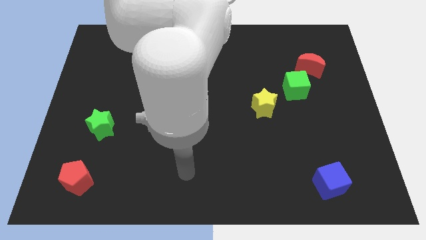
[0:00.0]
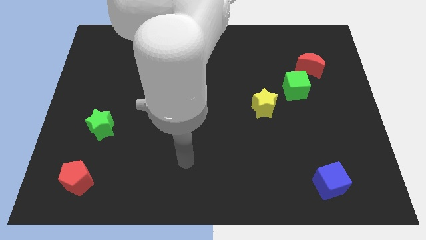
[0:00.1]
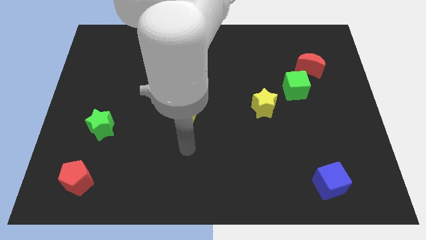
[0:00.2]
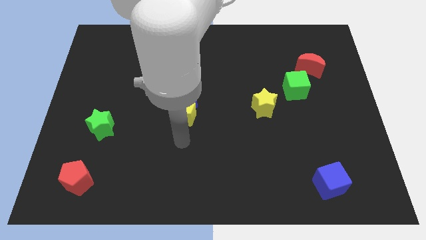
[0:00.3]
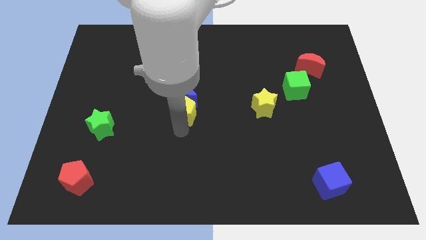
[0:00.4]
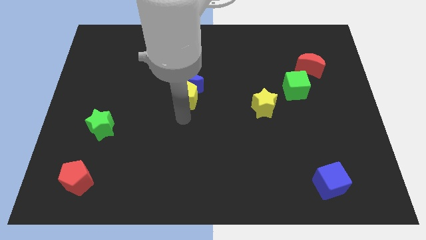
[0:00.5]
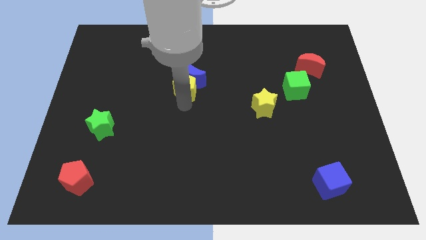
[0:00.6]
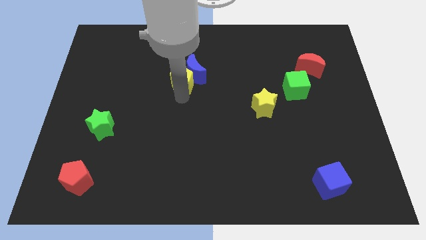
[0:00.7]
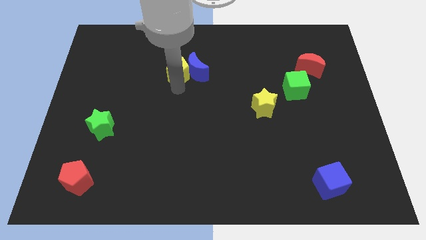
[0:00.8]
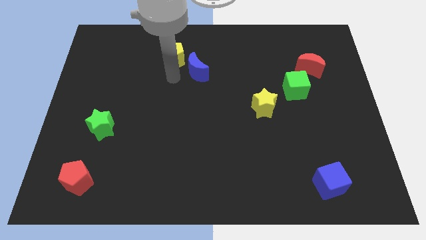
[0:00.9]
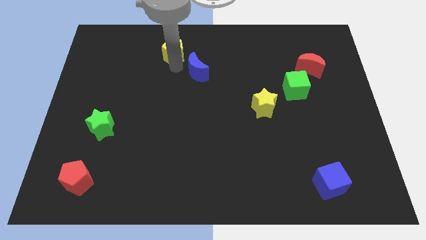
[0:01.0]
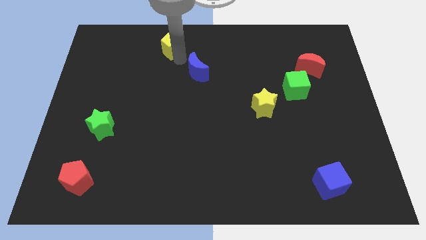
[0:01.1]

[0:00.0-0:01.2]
separate the blue moon from the yellow pentagon

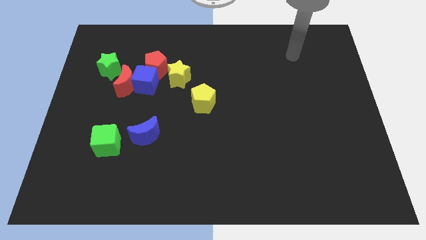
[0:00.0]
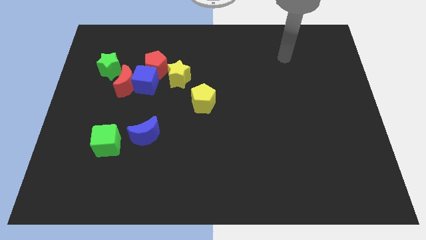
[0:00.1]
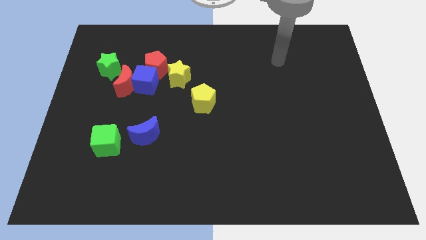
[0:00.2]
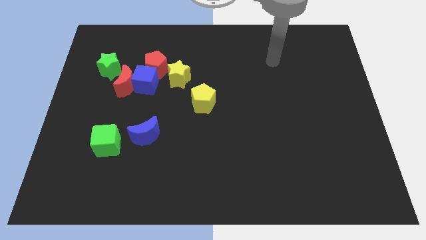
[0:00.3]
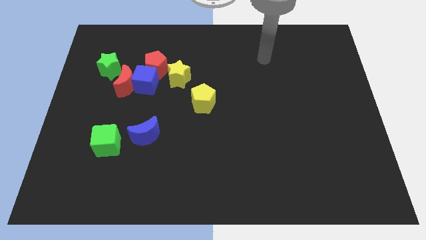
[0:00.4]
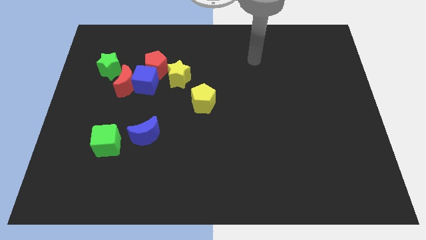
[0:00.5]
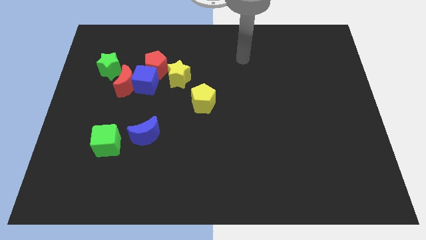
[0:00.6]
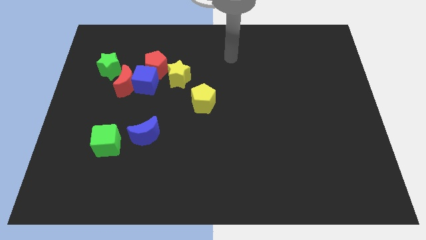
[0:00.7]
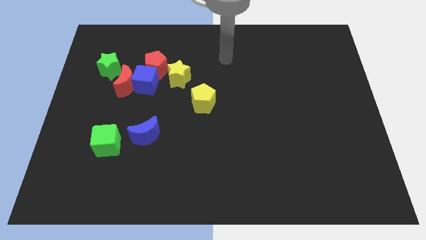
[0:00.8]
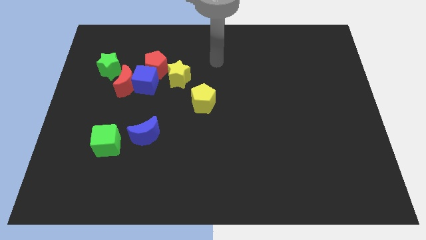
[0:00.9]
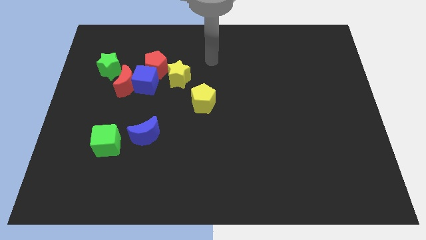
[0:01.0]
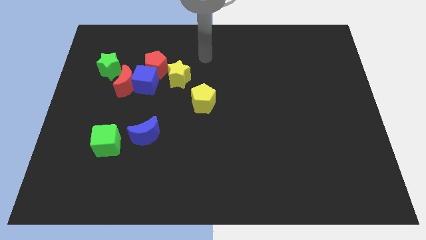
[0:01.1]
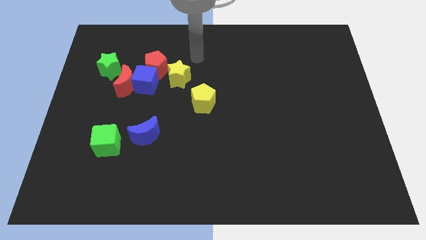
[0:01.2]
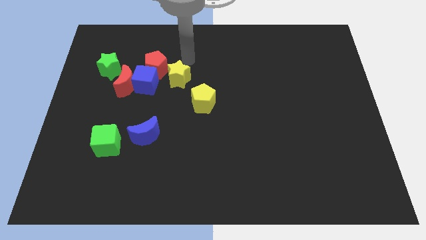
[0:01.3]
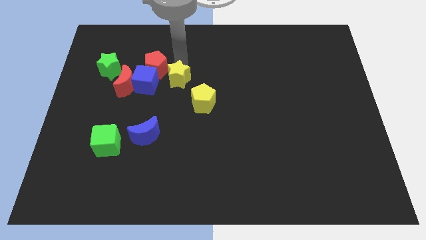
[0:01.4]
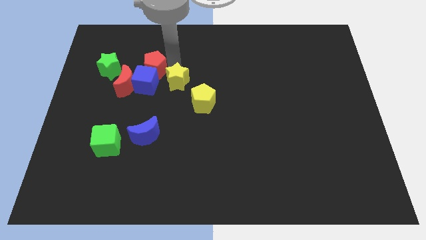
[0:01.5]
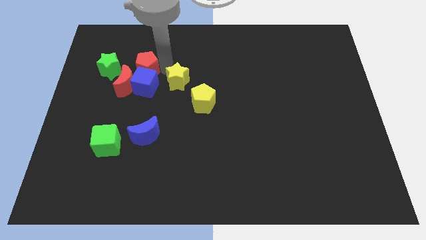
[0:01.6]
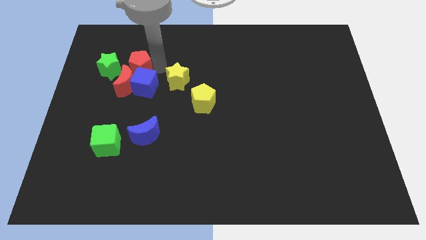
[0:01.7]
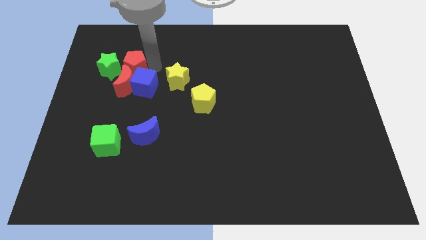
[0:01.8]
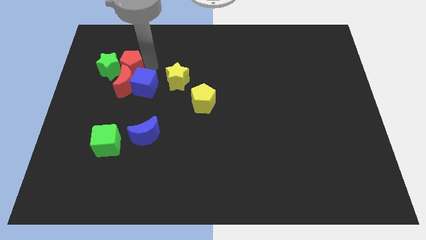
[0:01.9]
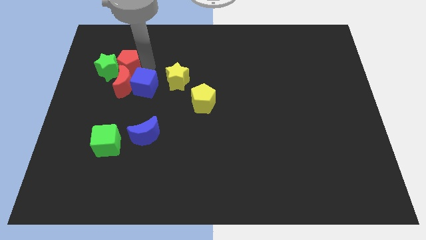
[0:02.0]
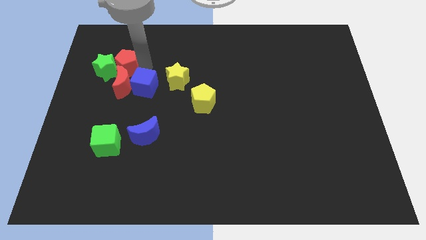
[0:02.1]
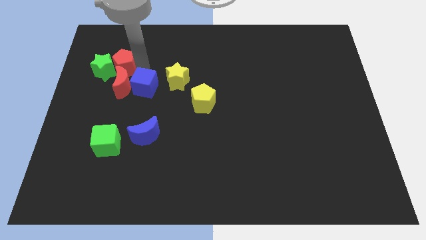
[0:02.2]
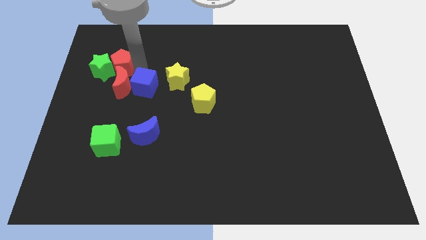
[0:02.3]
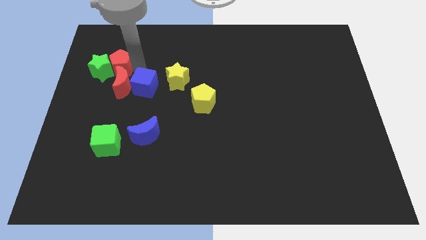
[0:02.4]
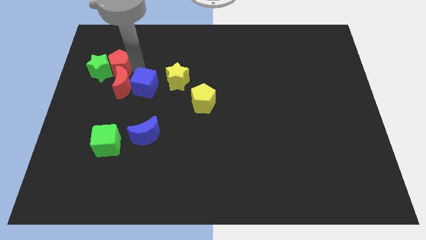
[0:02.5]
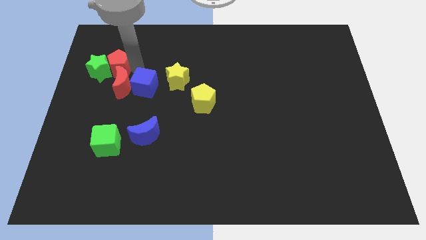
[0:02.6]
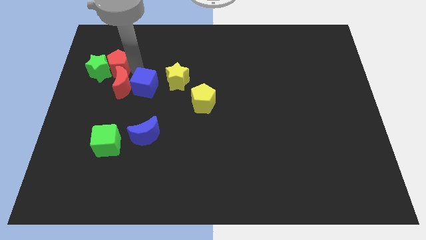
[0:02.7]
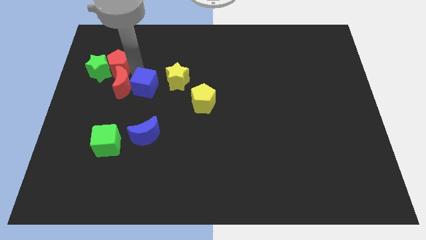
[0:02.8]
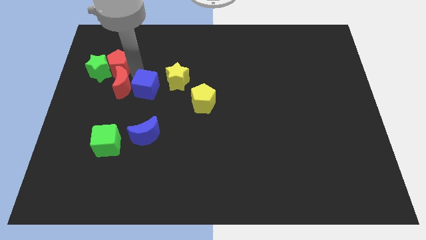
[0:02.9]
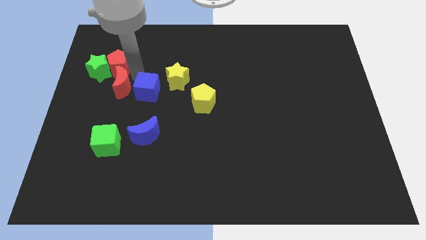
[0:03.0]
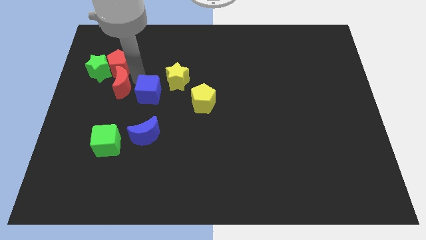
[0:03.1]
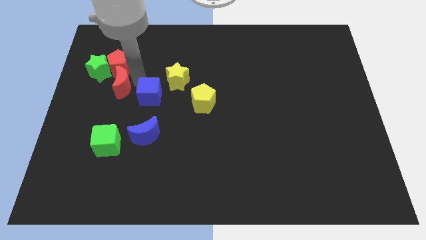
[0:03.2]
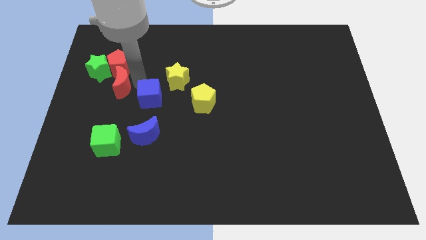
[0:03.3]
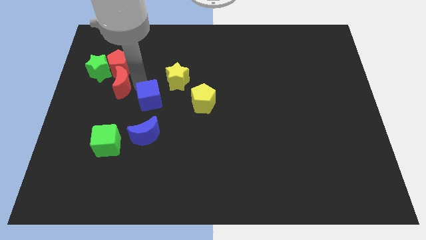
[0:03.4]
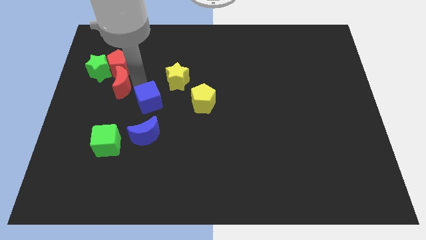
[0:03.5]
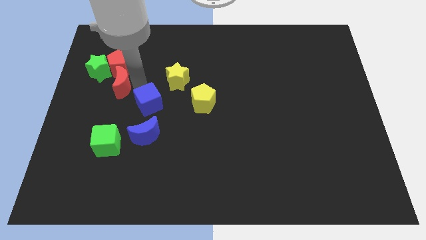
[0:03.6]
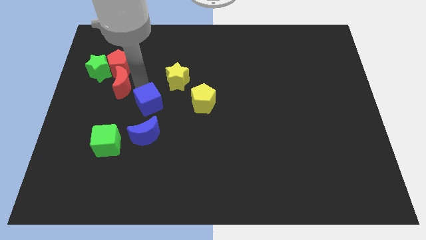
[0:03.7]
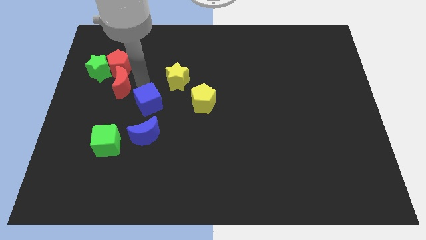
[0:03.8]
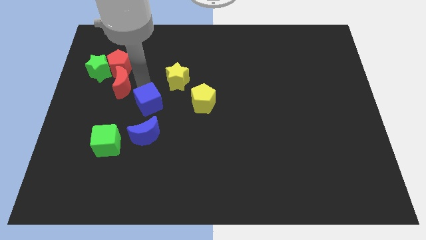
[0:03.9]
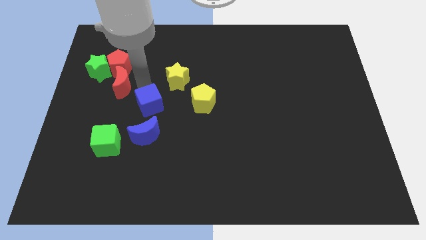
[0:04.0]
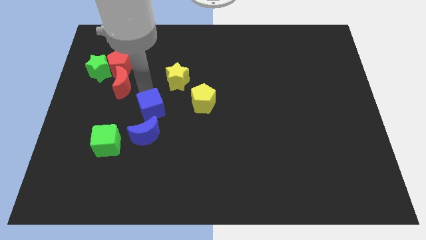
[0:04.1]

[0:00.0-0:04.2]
separate the blue cube from the clump

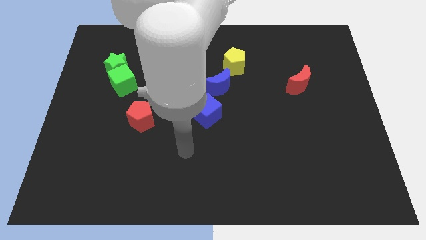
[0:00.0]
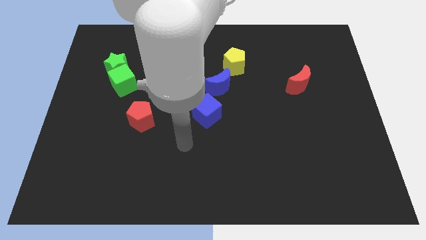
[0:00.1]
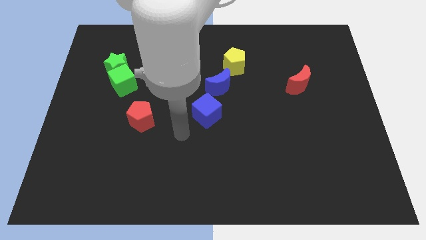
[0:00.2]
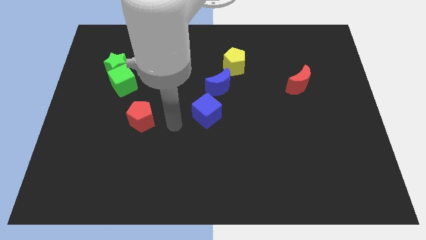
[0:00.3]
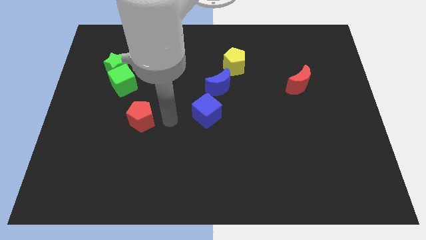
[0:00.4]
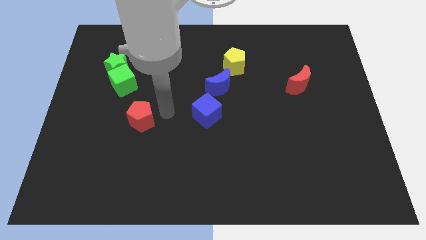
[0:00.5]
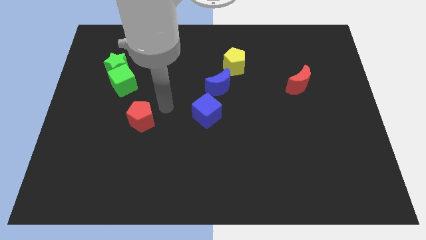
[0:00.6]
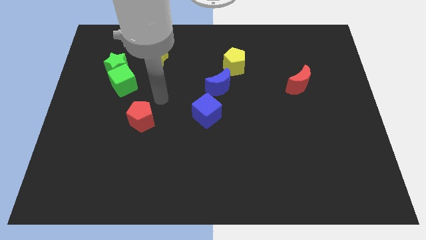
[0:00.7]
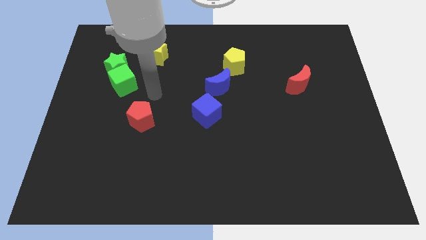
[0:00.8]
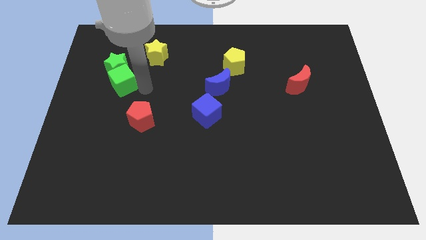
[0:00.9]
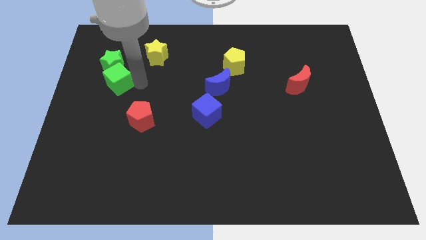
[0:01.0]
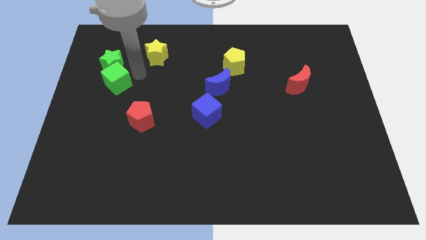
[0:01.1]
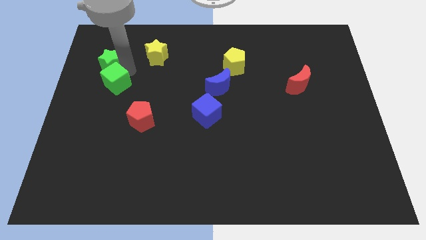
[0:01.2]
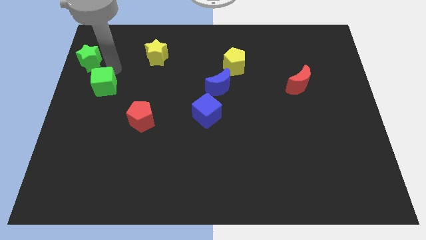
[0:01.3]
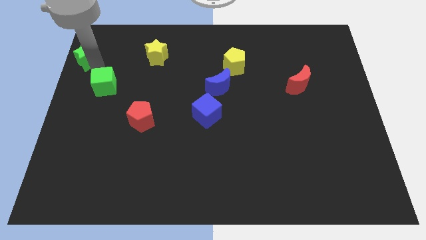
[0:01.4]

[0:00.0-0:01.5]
move the green cube away from the green star

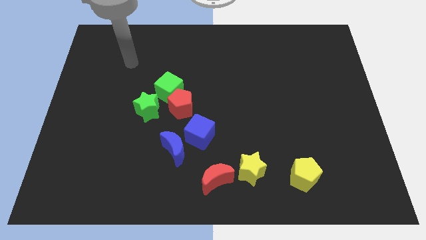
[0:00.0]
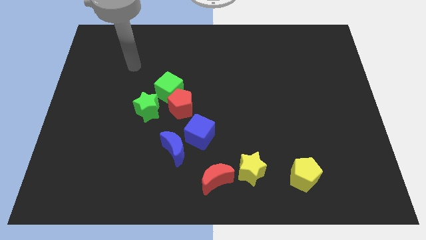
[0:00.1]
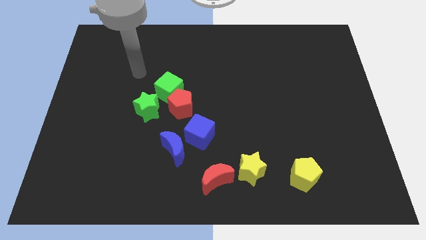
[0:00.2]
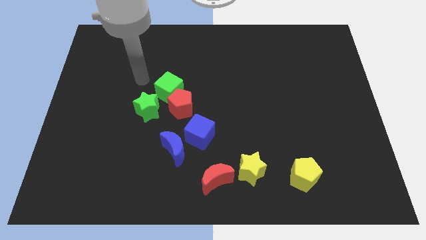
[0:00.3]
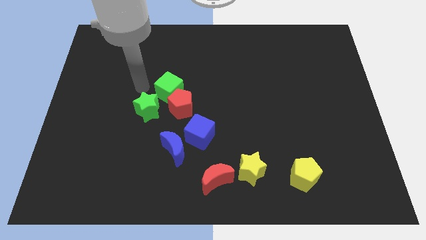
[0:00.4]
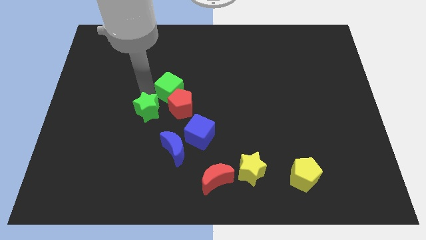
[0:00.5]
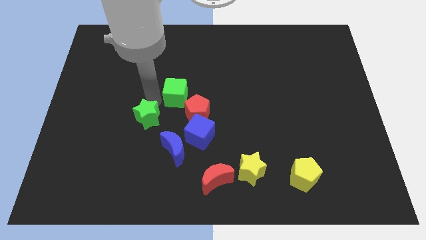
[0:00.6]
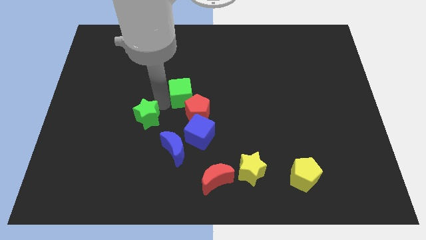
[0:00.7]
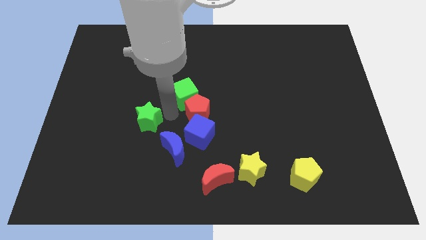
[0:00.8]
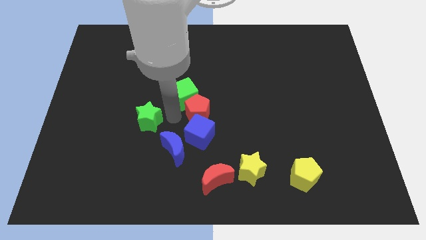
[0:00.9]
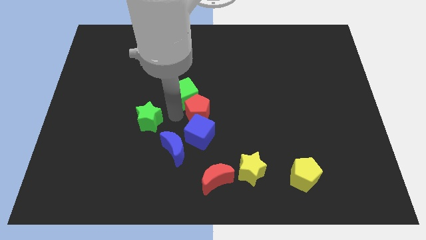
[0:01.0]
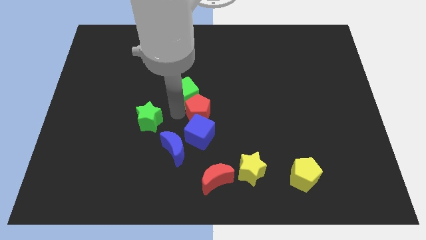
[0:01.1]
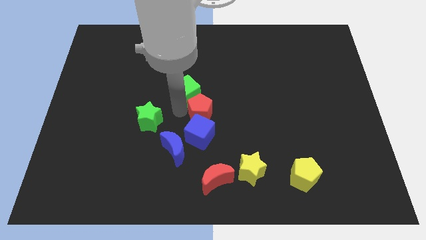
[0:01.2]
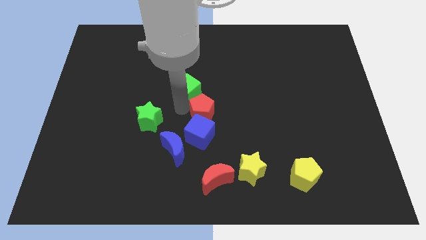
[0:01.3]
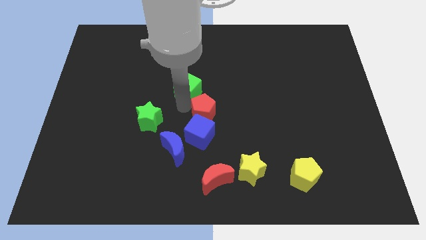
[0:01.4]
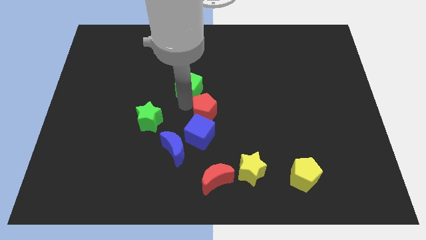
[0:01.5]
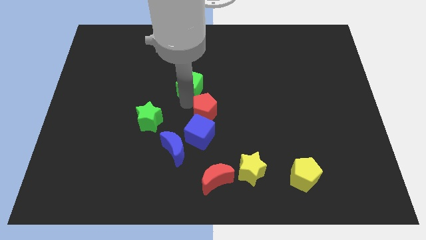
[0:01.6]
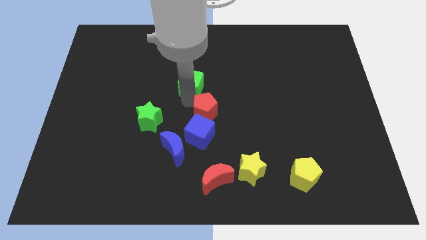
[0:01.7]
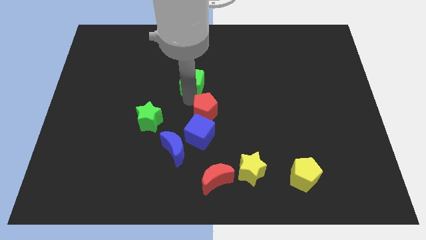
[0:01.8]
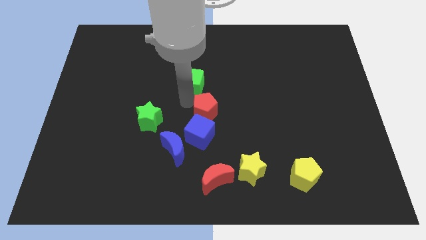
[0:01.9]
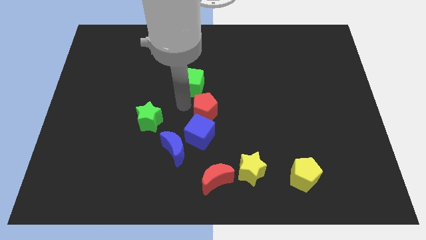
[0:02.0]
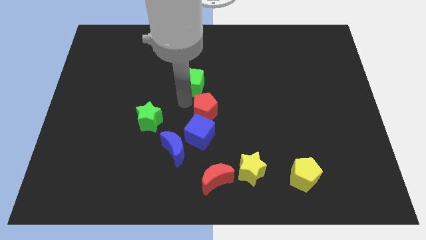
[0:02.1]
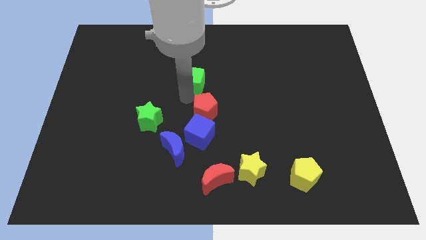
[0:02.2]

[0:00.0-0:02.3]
move the green cube away from the red pentagon and green star

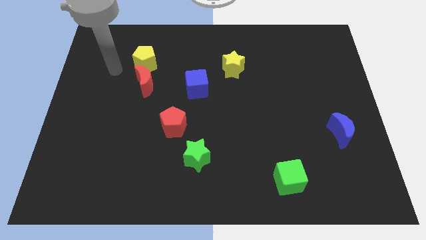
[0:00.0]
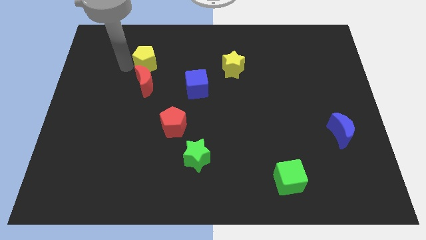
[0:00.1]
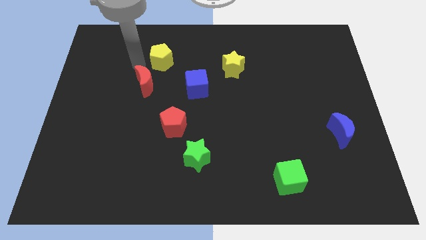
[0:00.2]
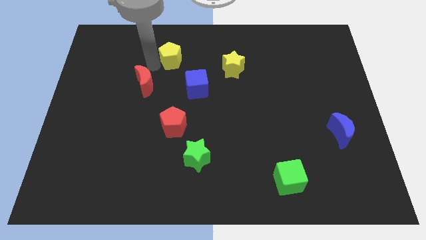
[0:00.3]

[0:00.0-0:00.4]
move the red moon away from the yellow pentagon
